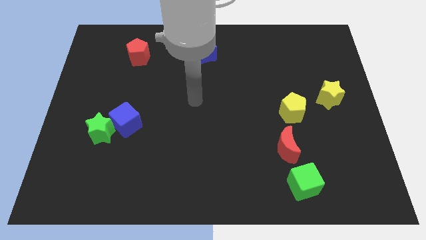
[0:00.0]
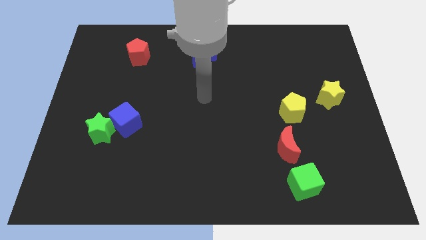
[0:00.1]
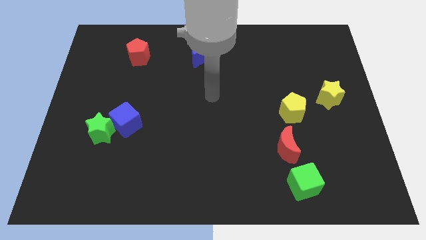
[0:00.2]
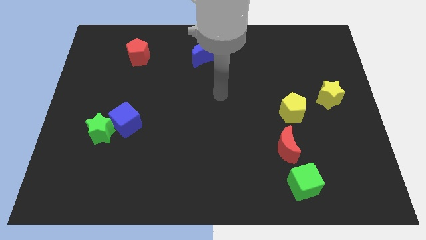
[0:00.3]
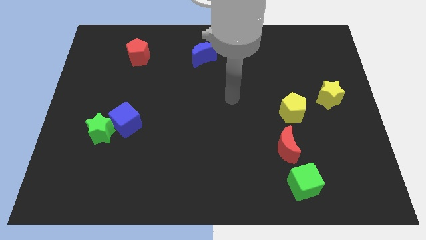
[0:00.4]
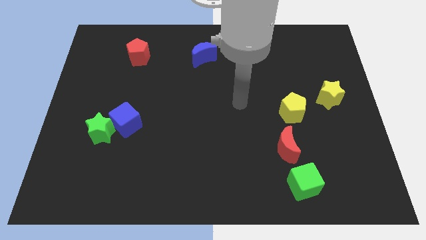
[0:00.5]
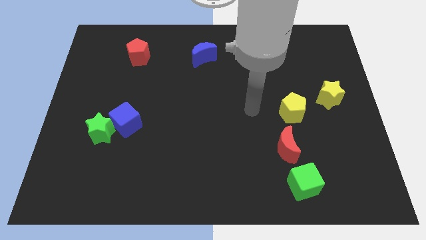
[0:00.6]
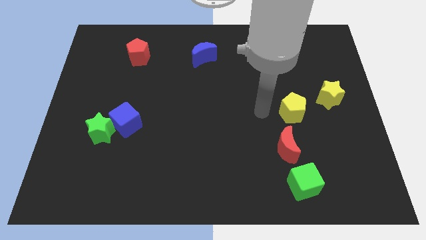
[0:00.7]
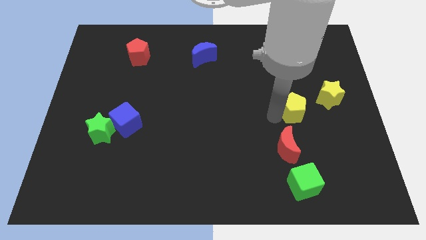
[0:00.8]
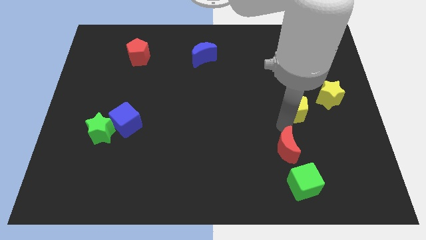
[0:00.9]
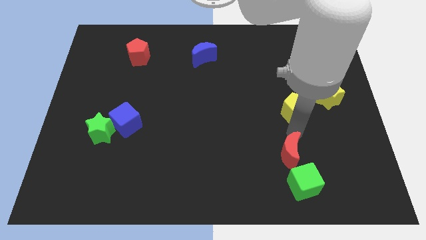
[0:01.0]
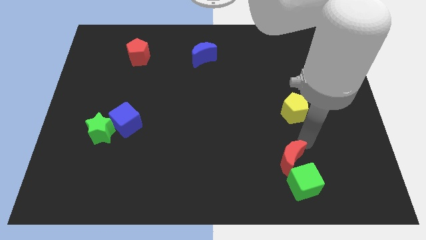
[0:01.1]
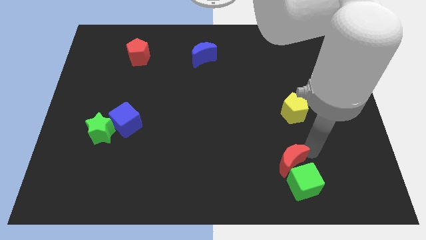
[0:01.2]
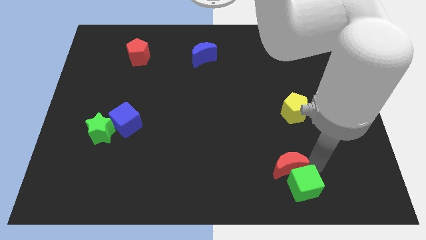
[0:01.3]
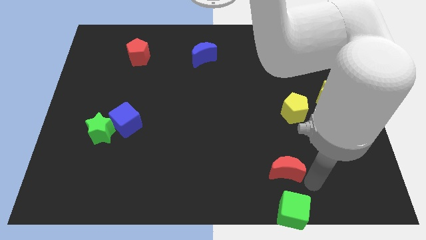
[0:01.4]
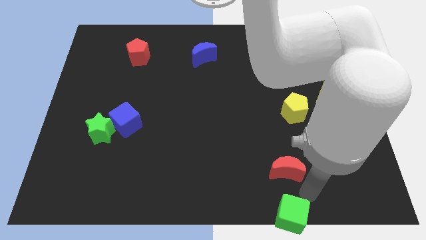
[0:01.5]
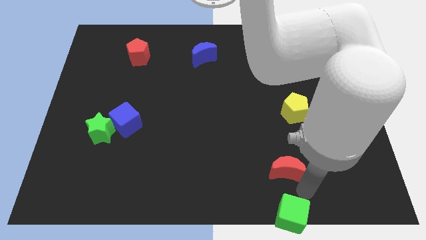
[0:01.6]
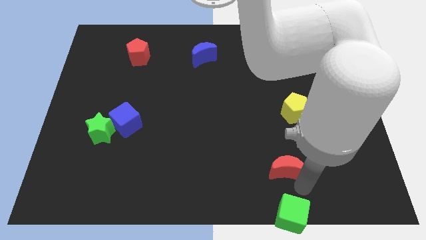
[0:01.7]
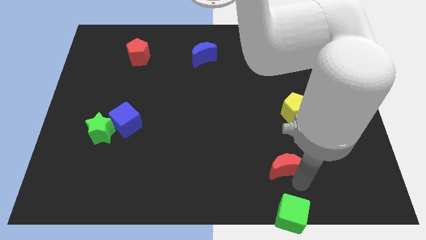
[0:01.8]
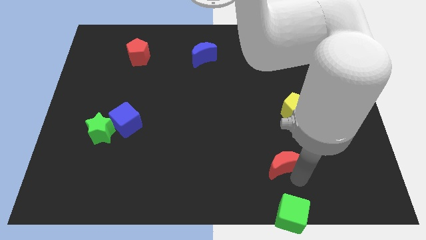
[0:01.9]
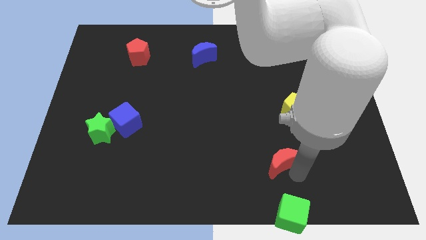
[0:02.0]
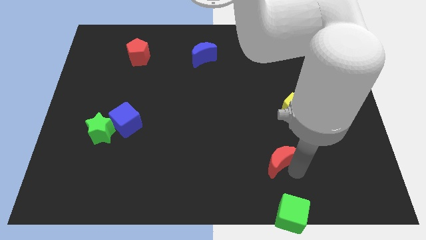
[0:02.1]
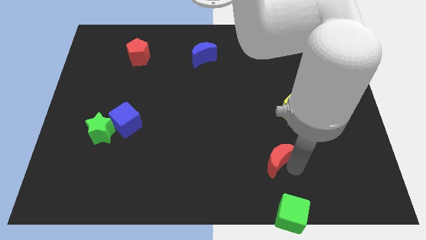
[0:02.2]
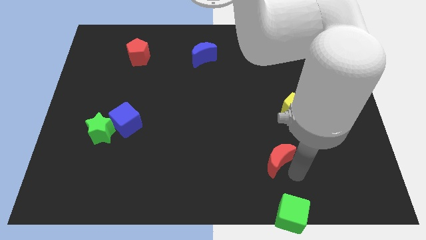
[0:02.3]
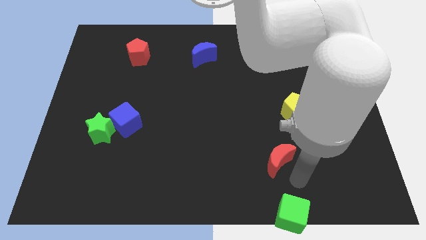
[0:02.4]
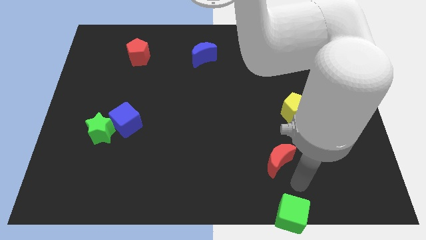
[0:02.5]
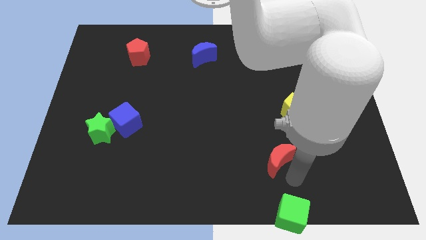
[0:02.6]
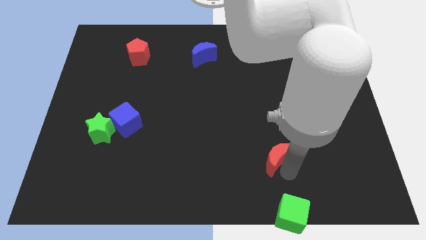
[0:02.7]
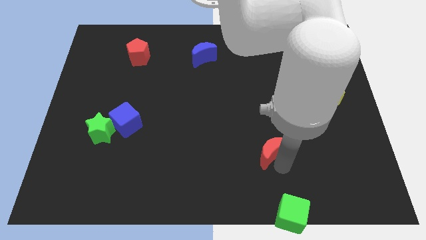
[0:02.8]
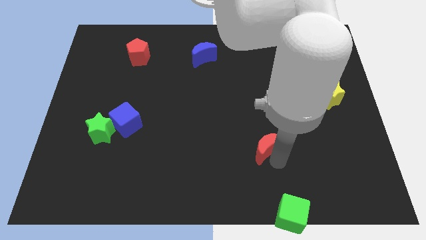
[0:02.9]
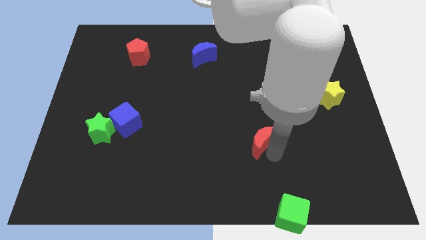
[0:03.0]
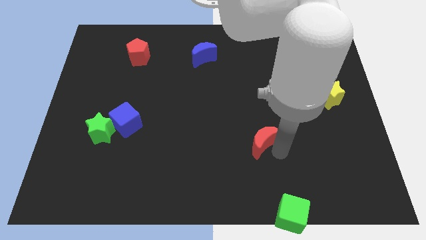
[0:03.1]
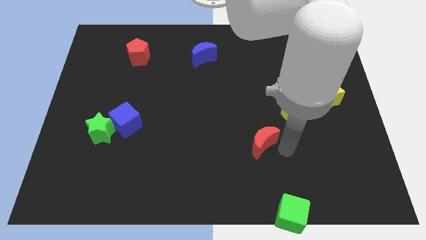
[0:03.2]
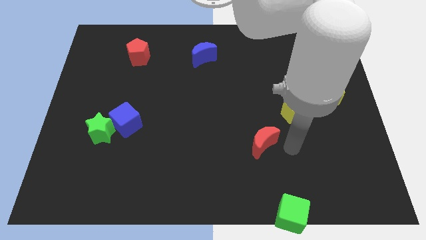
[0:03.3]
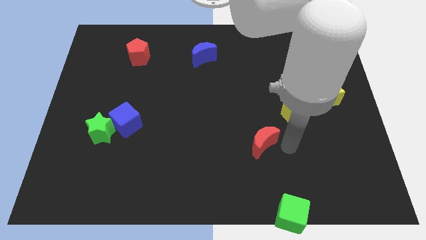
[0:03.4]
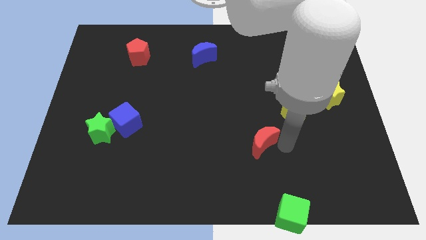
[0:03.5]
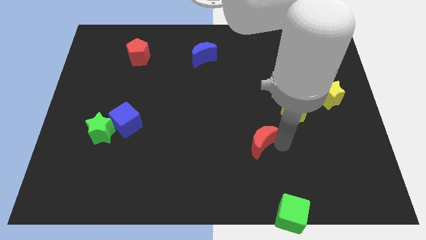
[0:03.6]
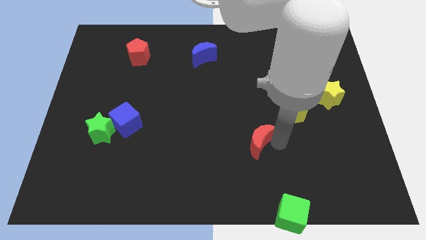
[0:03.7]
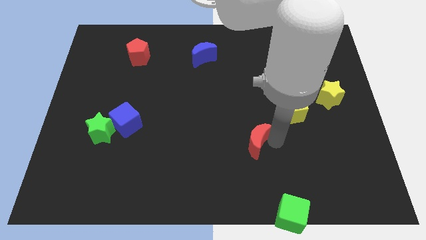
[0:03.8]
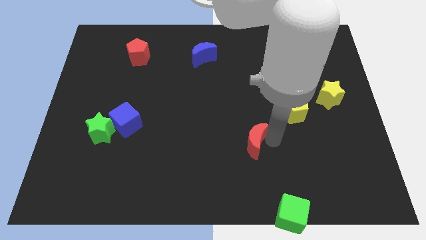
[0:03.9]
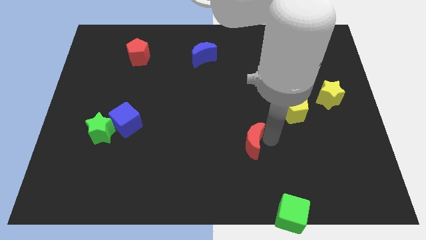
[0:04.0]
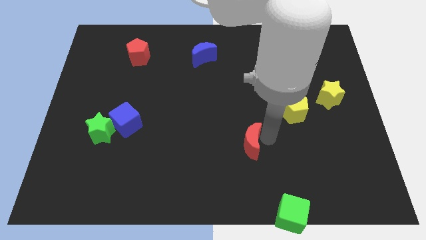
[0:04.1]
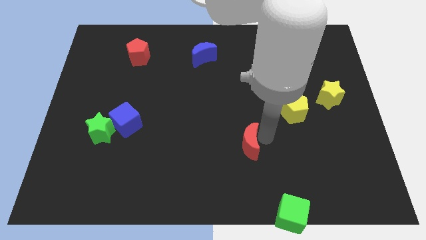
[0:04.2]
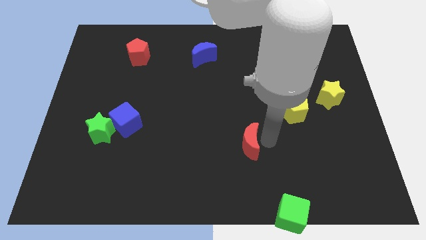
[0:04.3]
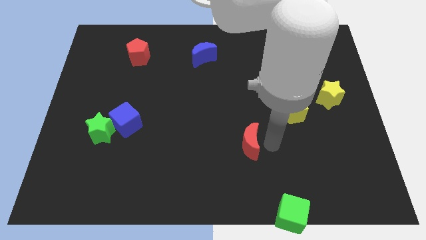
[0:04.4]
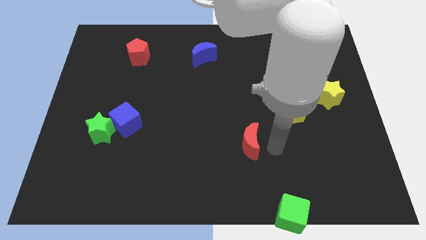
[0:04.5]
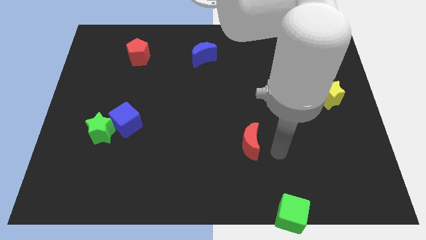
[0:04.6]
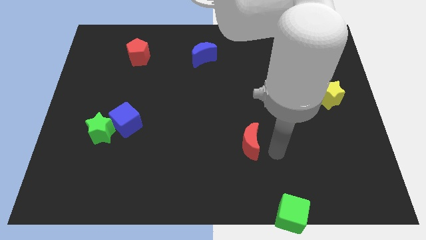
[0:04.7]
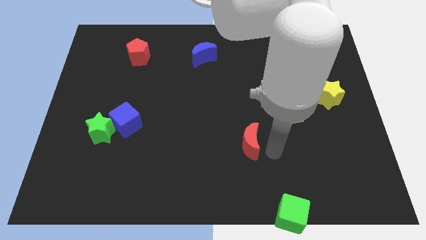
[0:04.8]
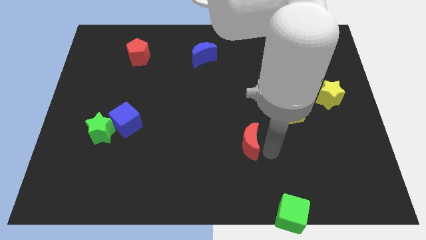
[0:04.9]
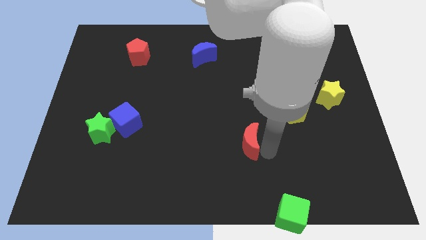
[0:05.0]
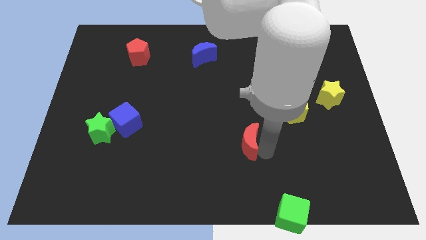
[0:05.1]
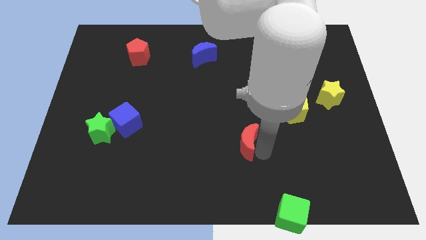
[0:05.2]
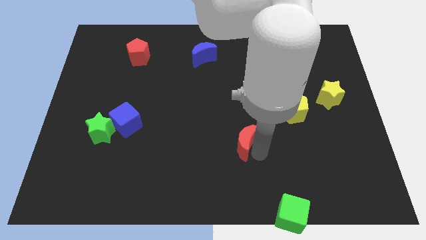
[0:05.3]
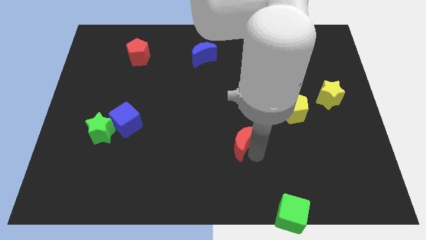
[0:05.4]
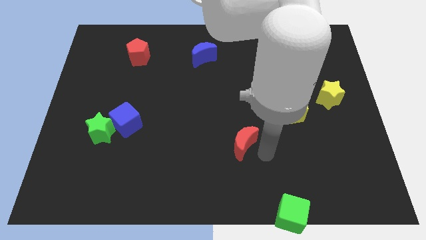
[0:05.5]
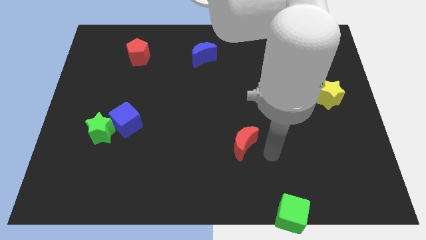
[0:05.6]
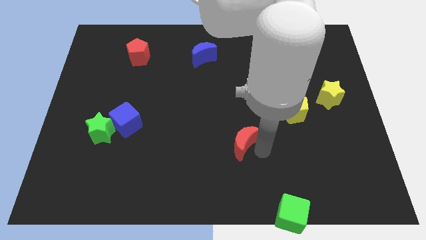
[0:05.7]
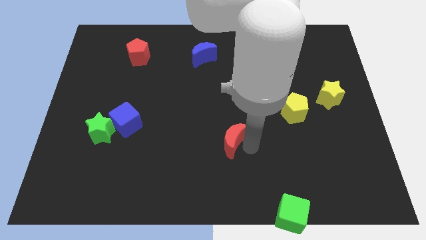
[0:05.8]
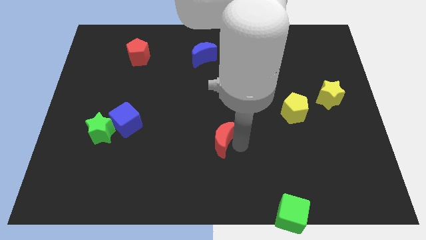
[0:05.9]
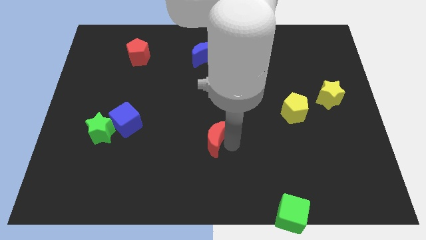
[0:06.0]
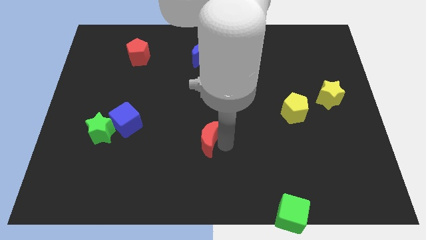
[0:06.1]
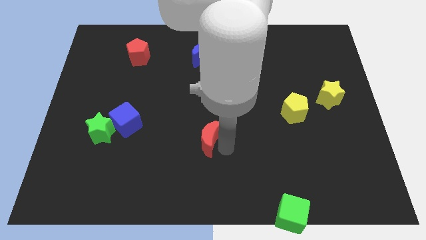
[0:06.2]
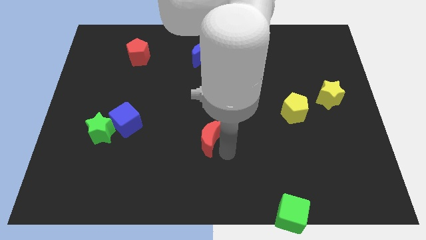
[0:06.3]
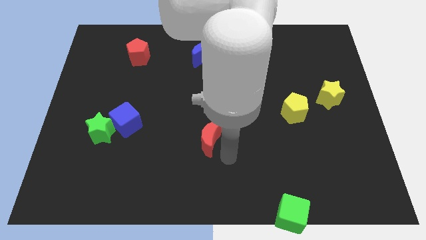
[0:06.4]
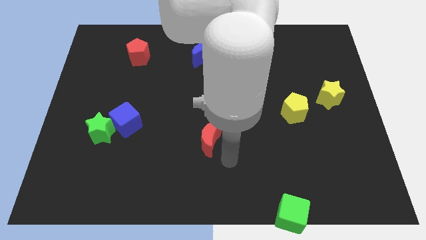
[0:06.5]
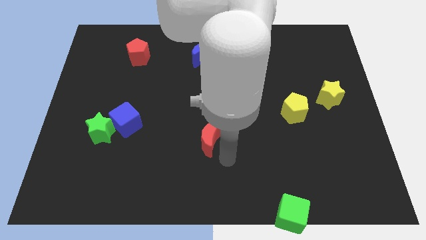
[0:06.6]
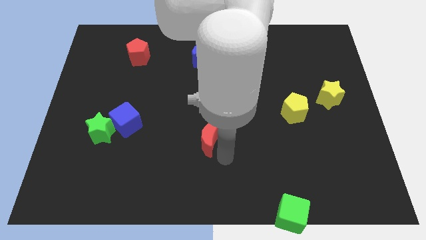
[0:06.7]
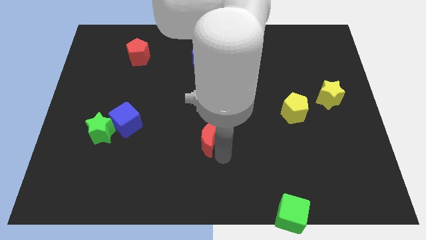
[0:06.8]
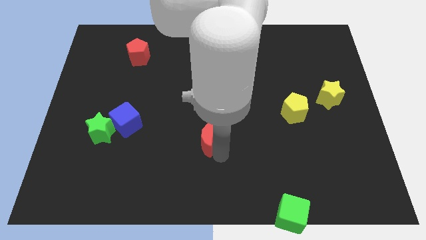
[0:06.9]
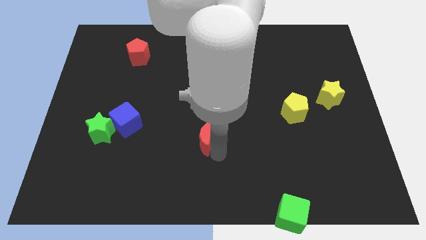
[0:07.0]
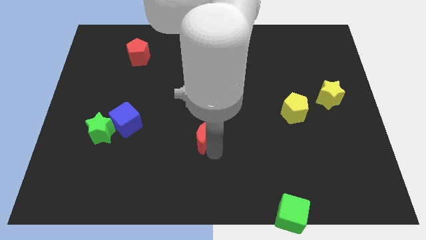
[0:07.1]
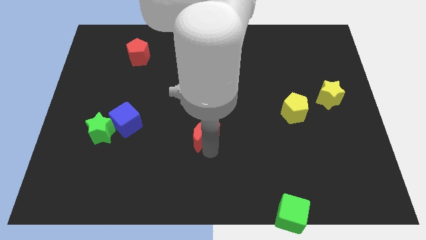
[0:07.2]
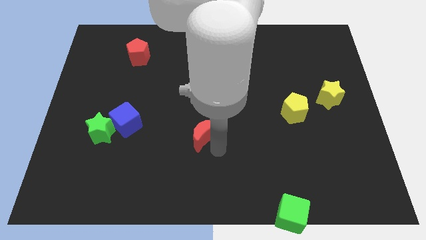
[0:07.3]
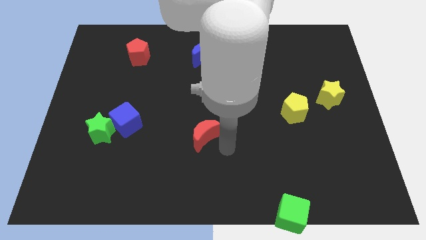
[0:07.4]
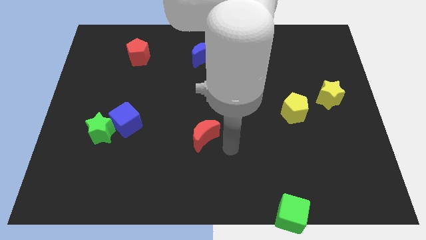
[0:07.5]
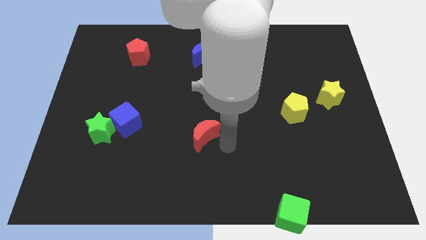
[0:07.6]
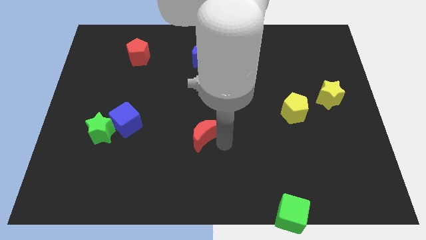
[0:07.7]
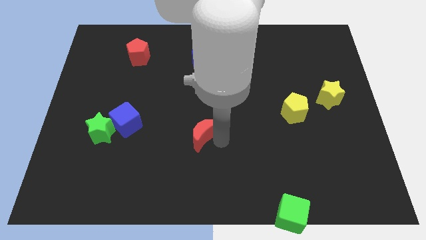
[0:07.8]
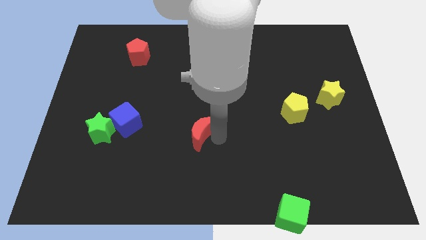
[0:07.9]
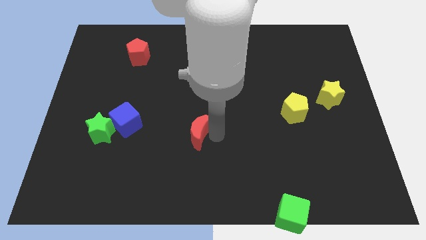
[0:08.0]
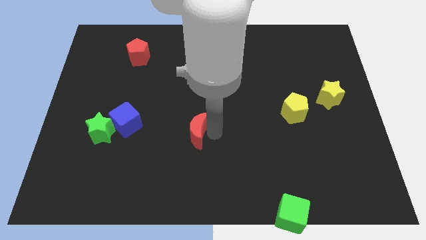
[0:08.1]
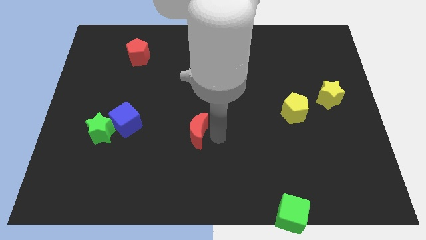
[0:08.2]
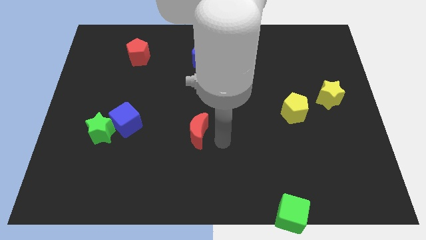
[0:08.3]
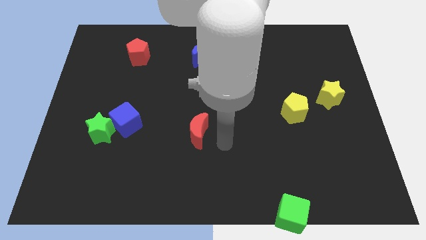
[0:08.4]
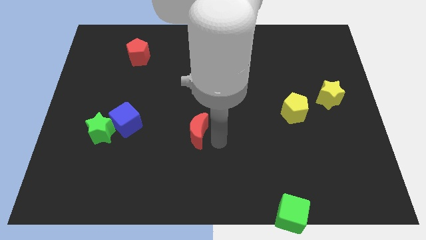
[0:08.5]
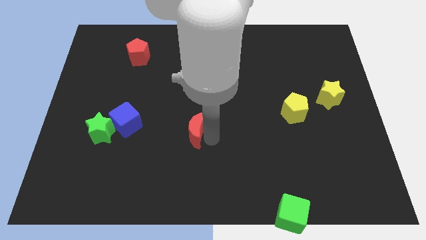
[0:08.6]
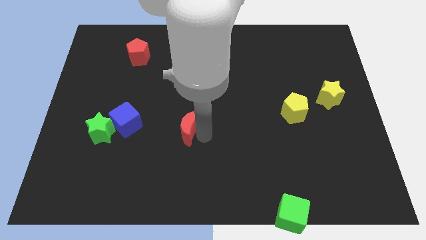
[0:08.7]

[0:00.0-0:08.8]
put the red moon to the right of the blue cube
